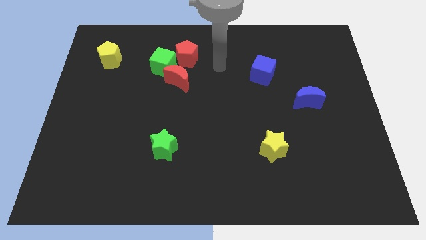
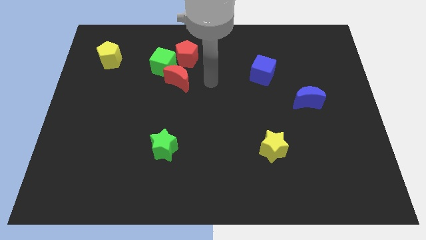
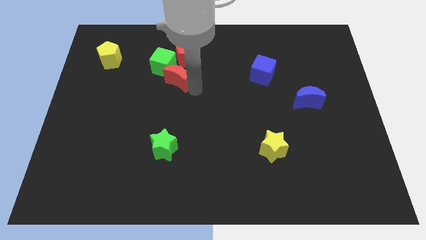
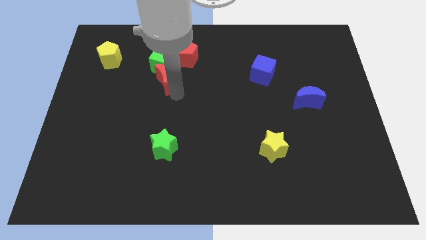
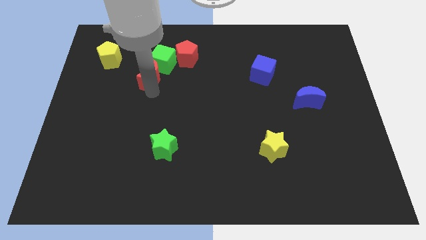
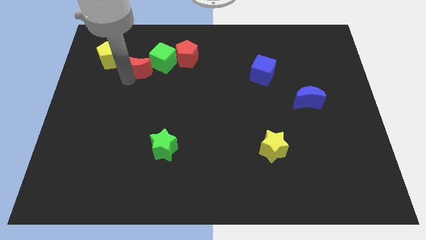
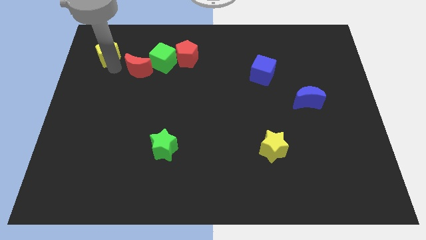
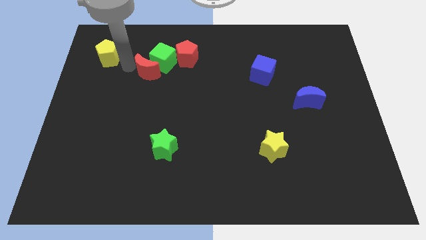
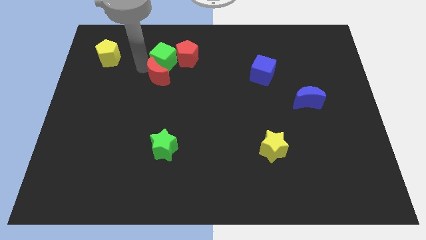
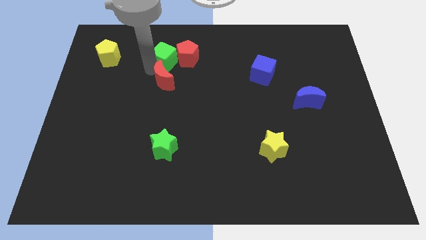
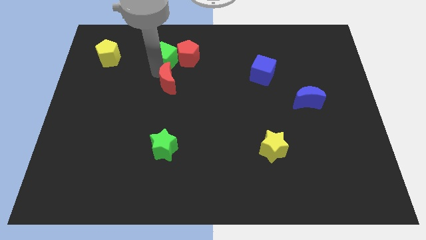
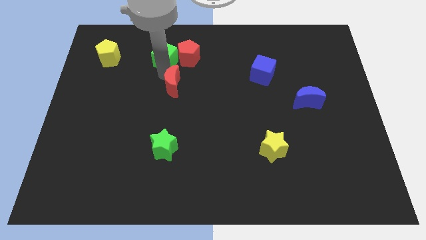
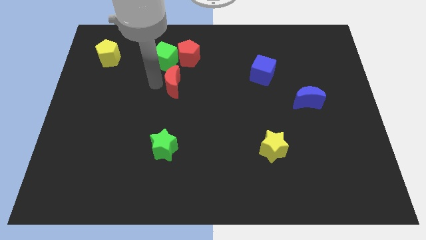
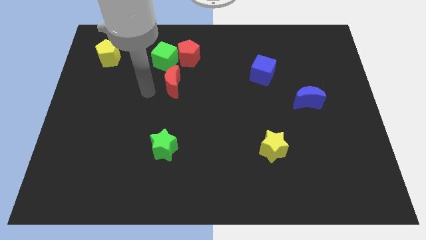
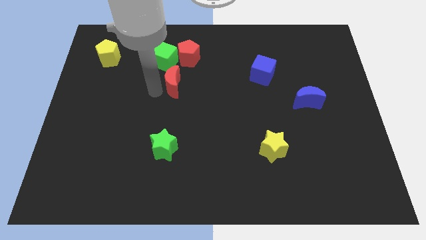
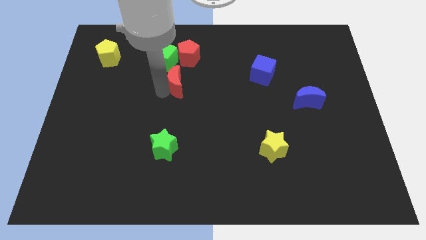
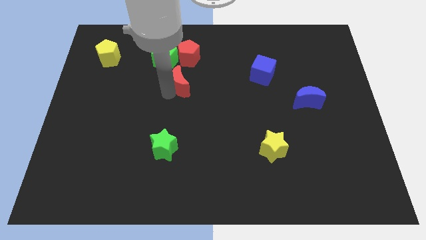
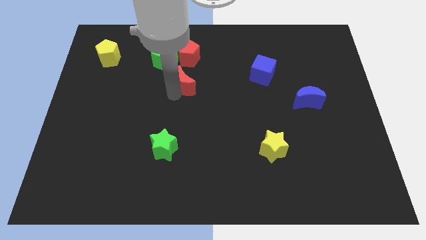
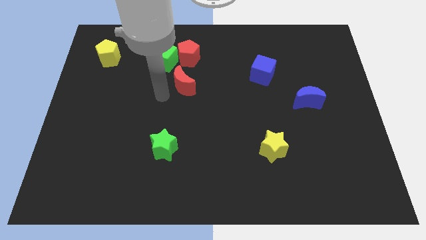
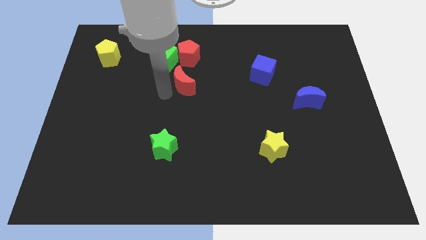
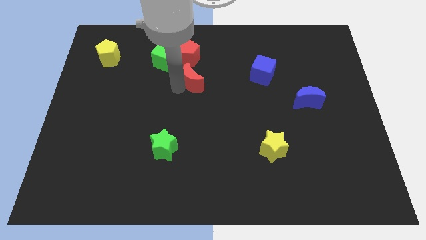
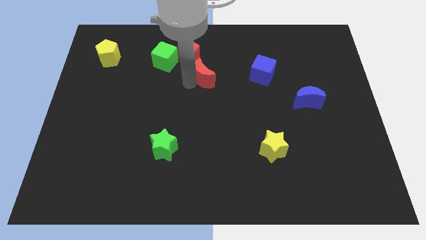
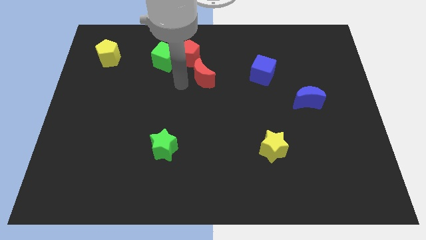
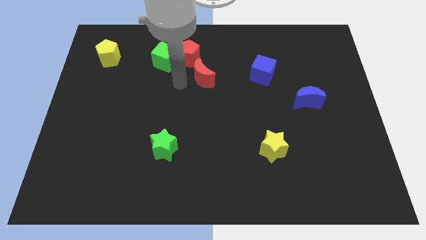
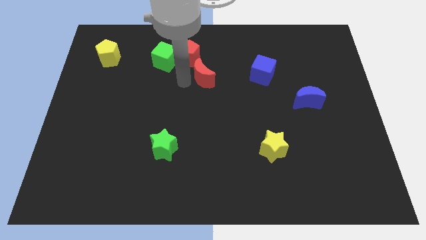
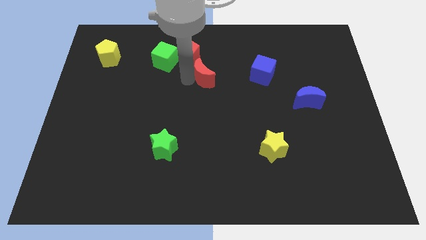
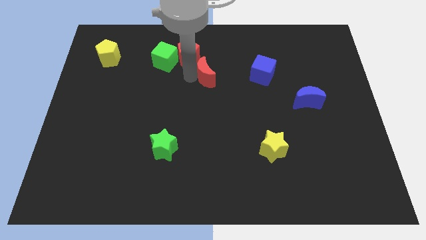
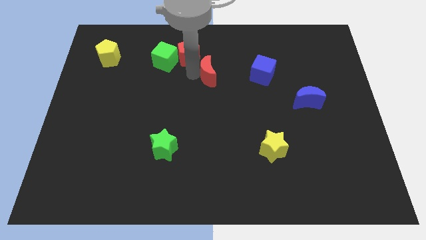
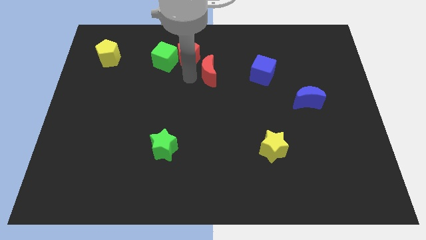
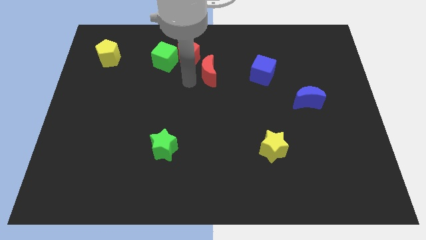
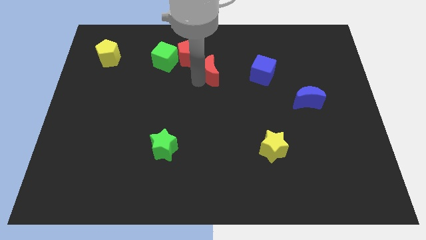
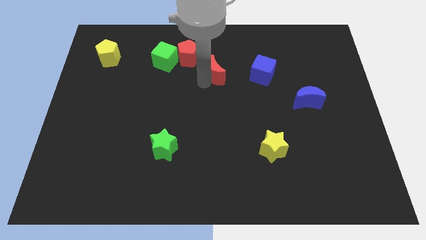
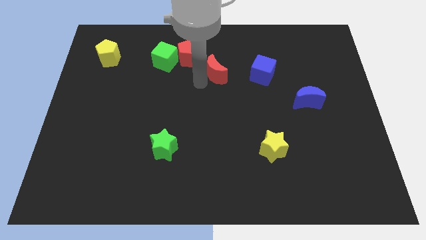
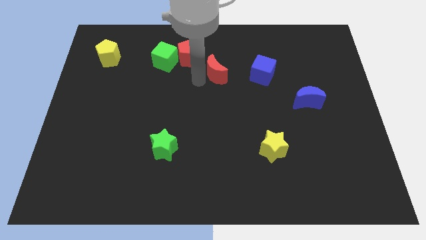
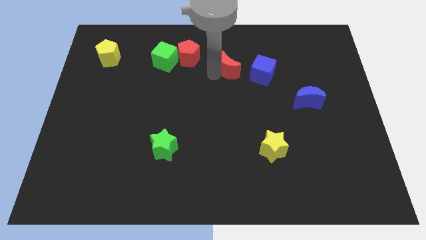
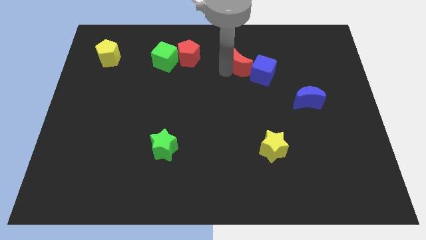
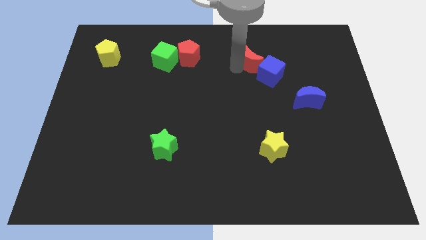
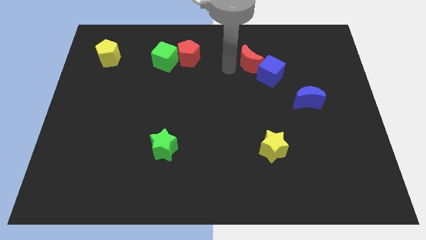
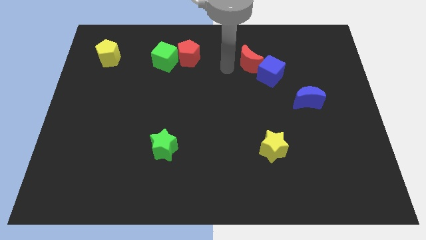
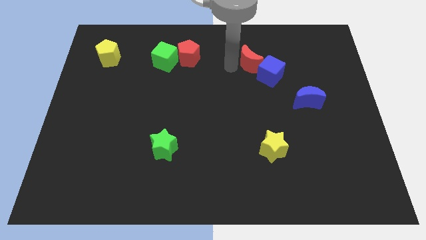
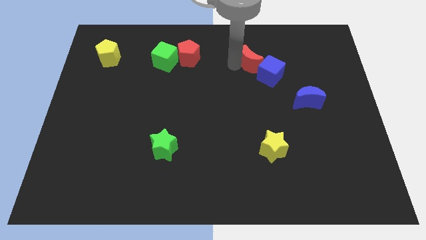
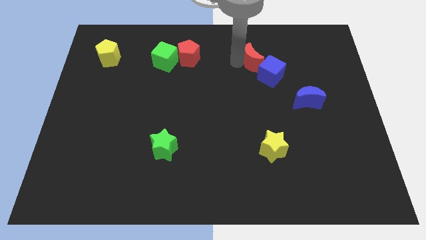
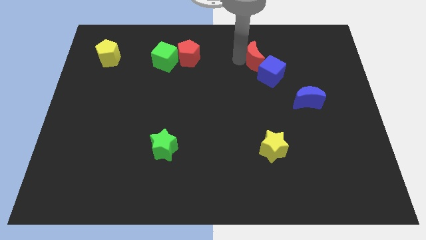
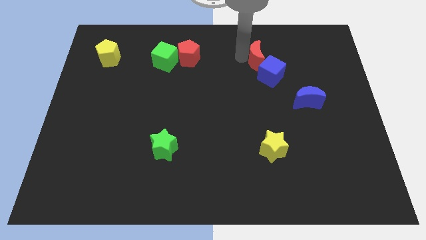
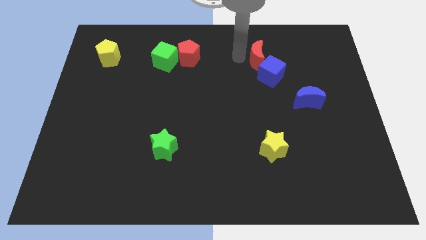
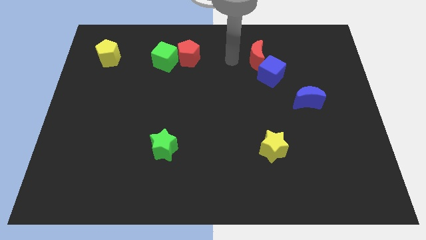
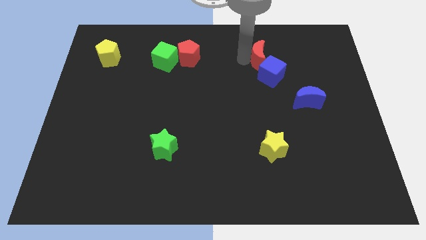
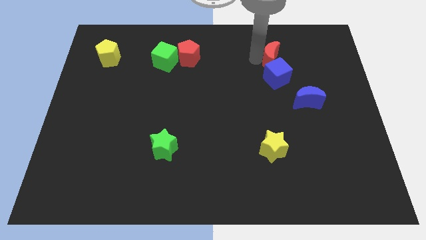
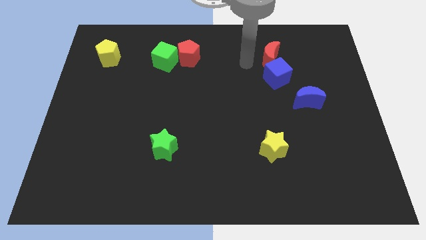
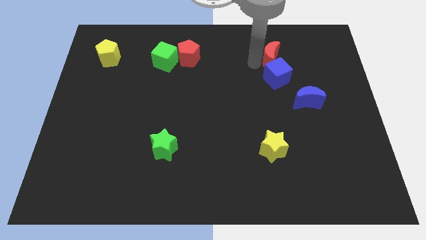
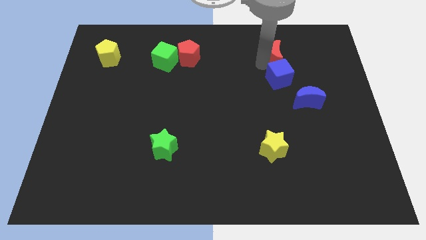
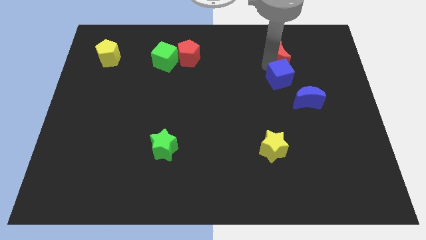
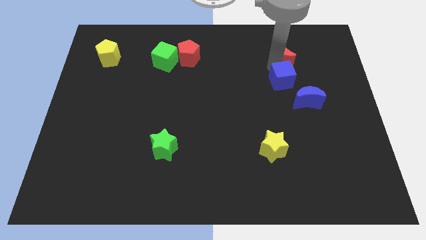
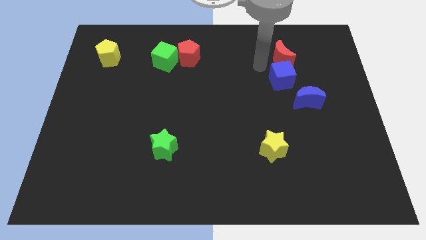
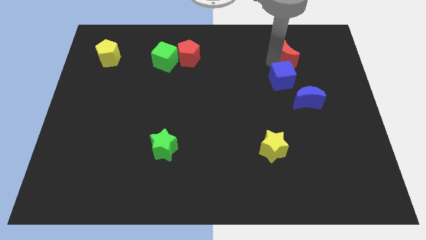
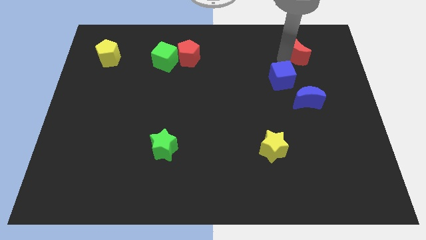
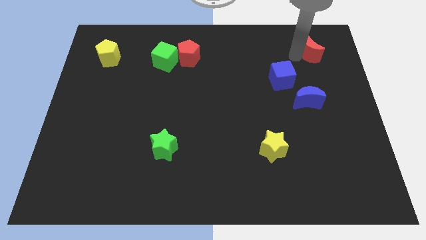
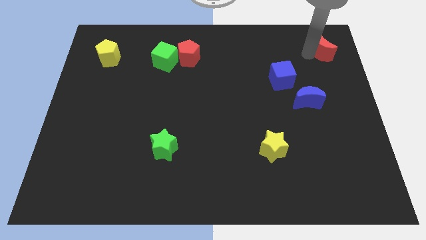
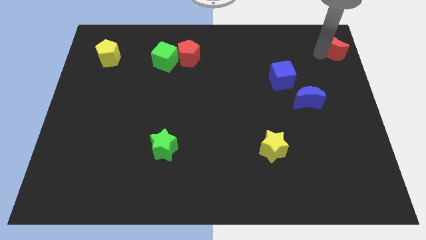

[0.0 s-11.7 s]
slide the red moon to the top right

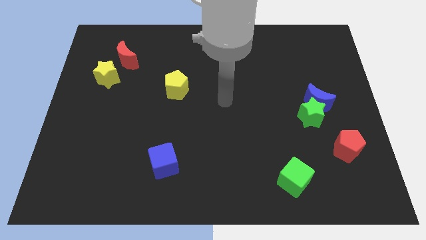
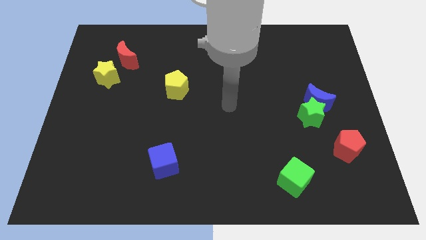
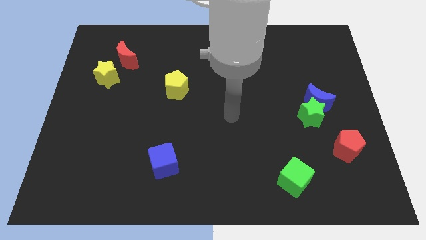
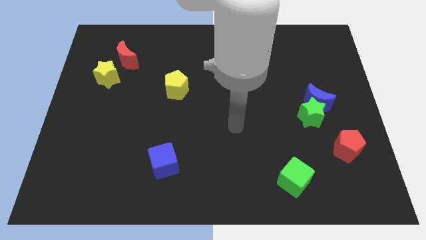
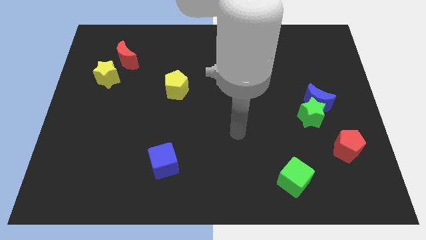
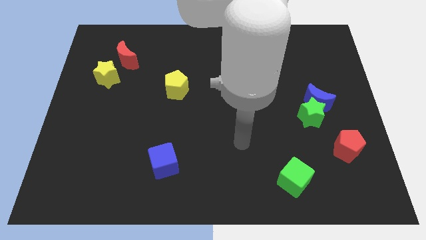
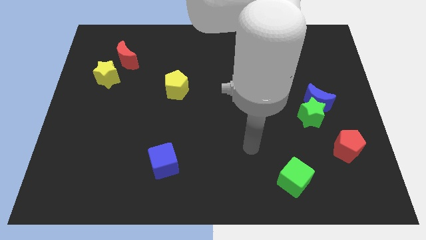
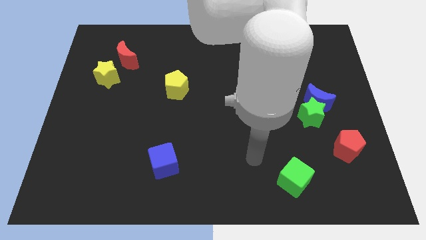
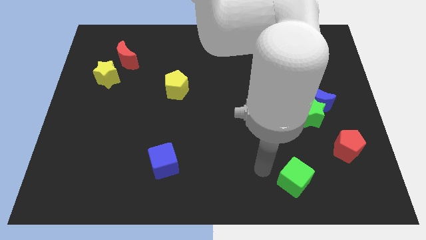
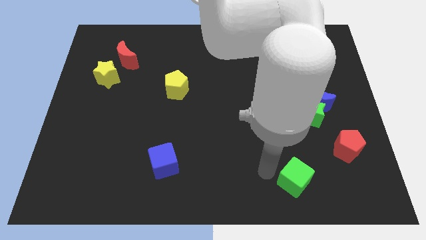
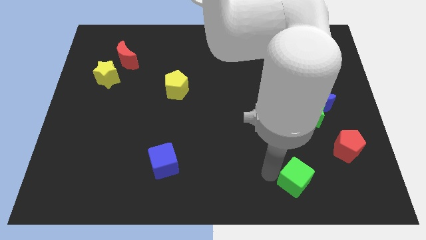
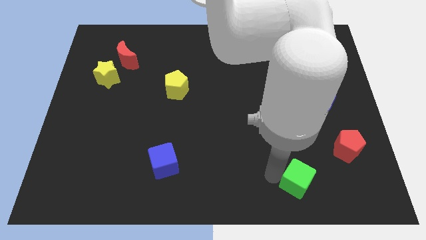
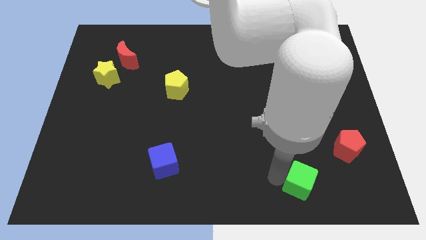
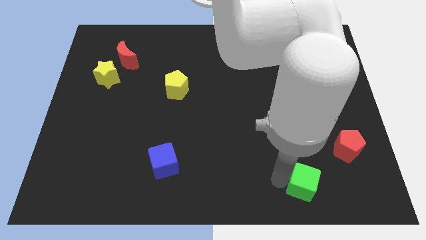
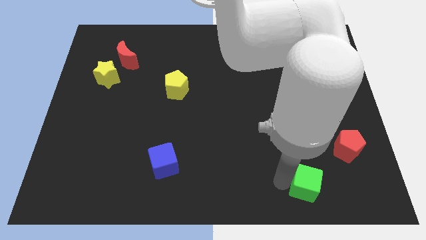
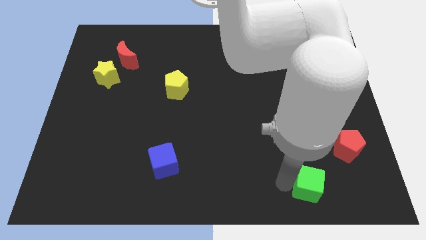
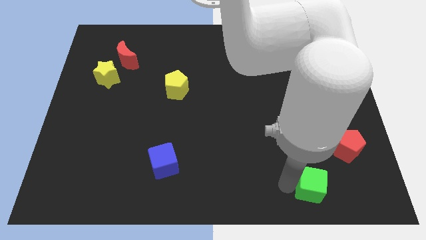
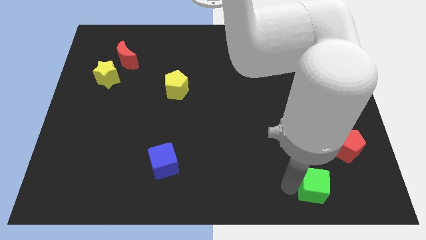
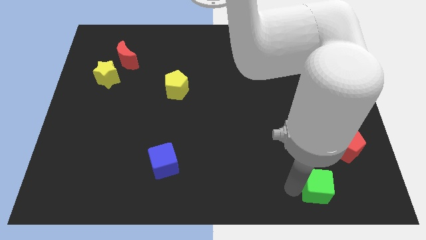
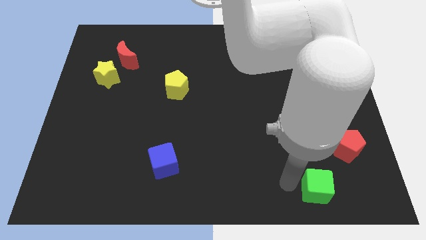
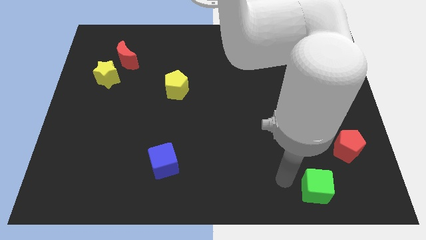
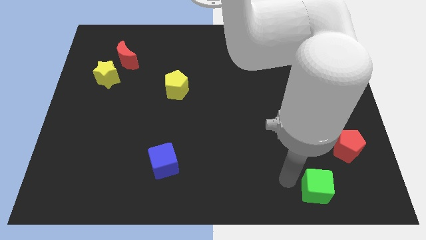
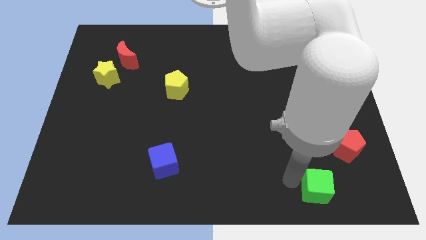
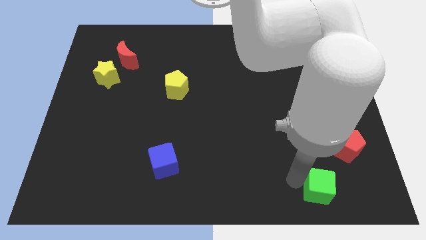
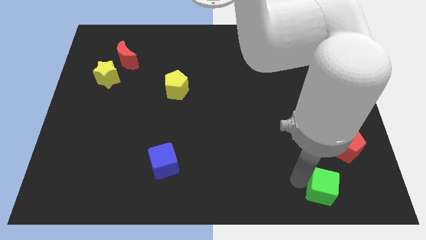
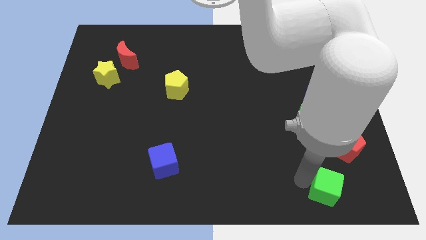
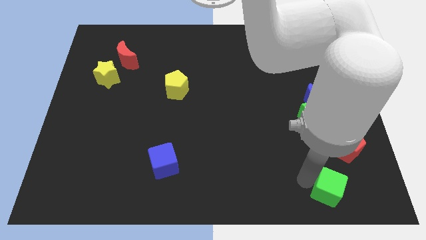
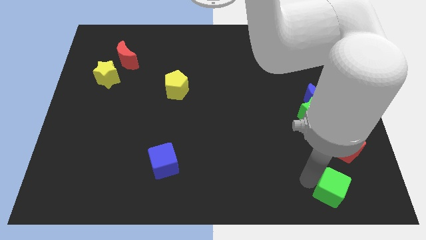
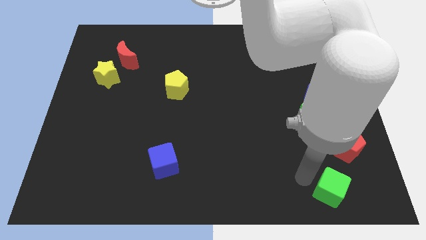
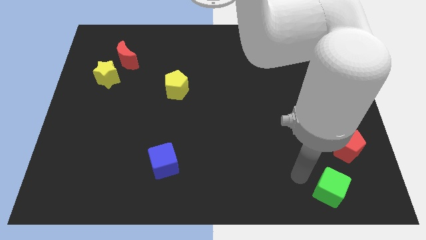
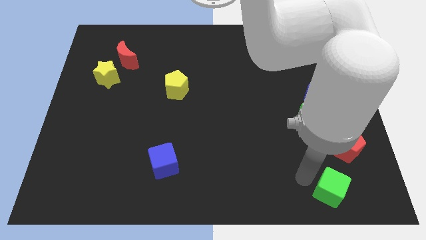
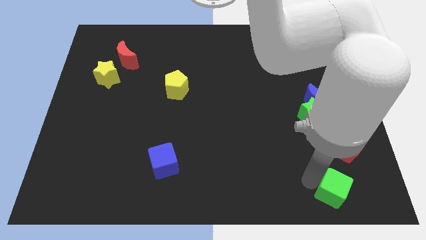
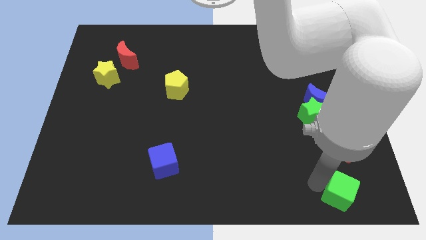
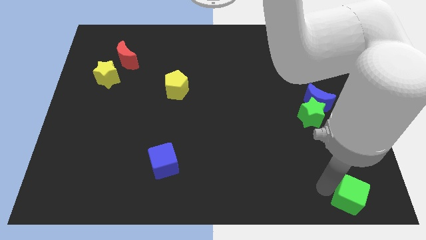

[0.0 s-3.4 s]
slide the green cube to the bottom right of the board
